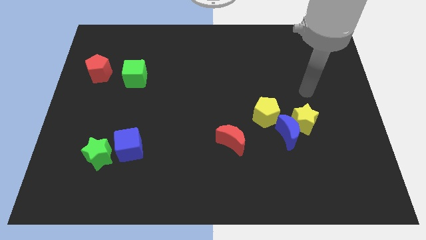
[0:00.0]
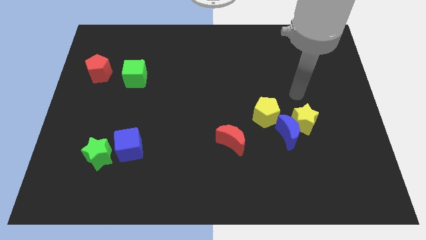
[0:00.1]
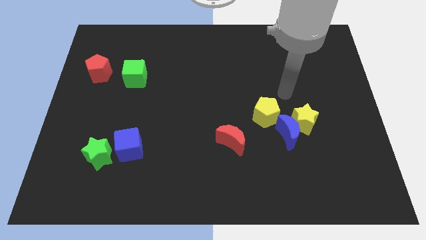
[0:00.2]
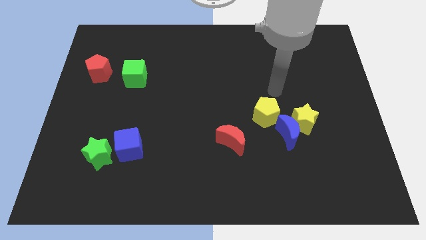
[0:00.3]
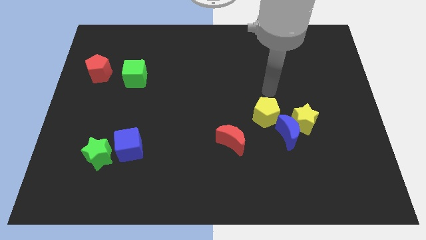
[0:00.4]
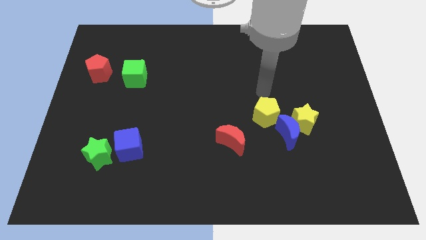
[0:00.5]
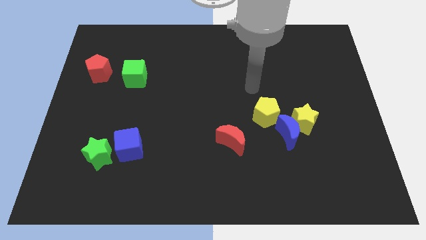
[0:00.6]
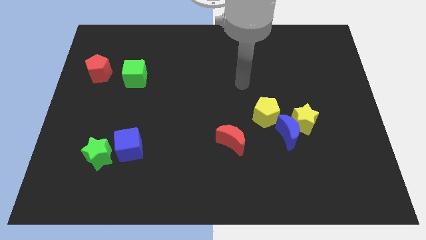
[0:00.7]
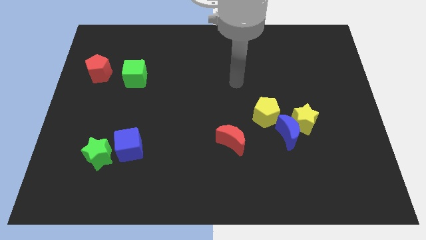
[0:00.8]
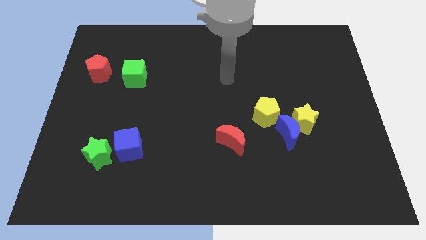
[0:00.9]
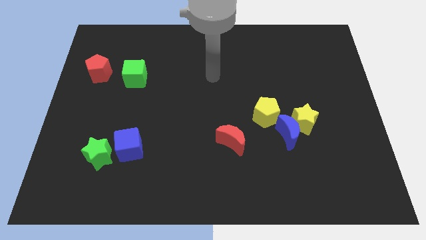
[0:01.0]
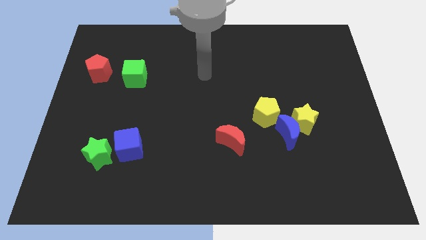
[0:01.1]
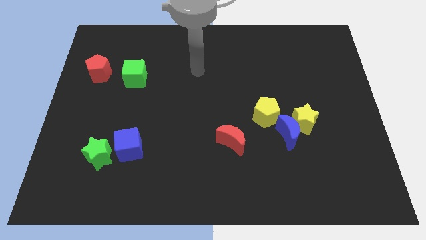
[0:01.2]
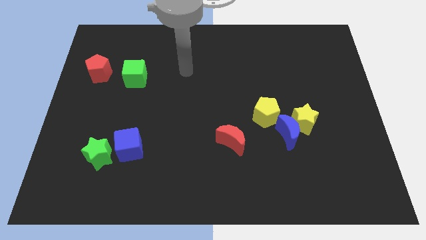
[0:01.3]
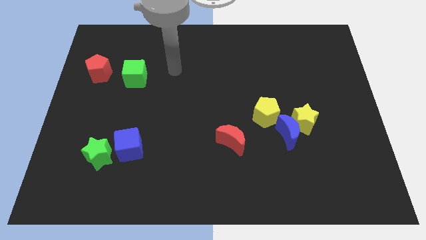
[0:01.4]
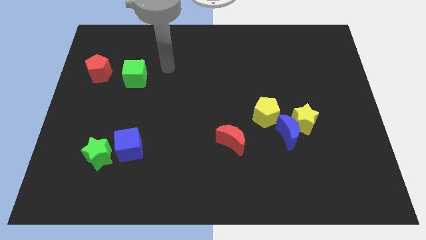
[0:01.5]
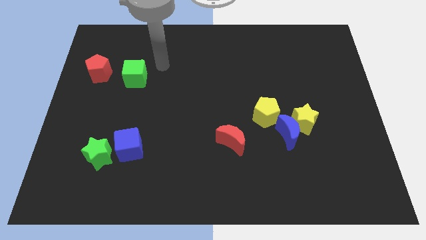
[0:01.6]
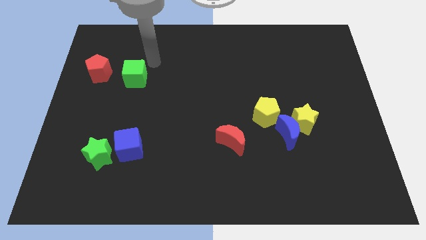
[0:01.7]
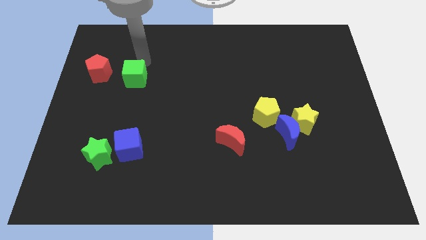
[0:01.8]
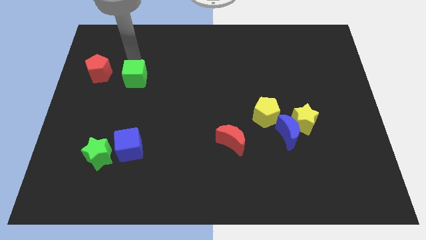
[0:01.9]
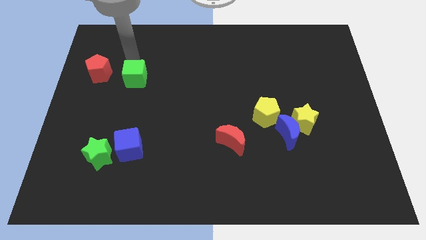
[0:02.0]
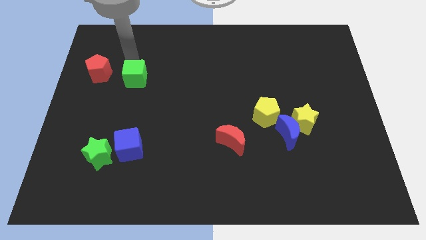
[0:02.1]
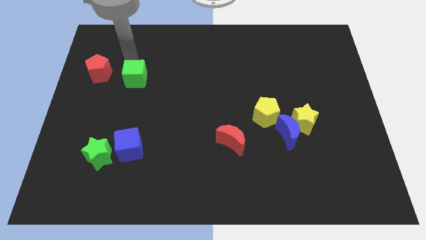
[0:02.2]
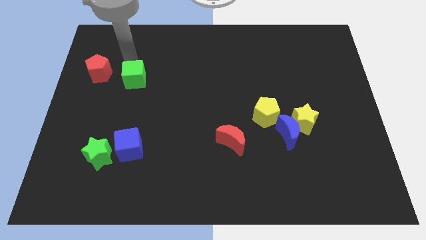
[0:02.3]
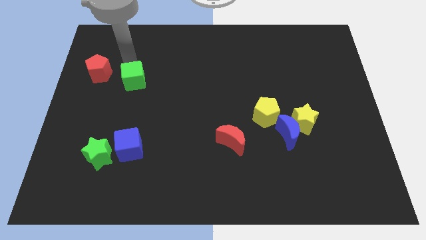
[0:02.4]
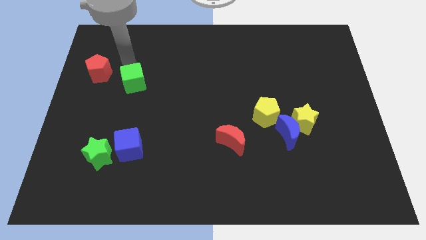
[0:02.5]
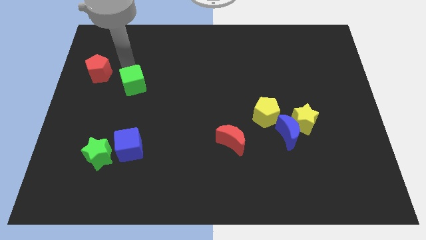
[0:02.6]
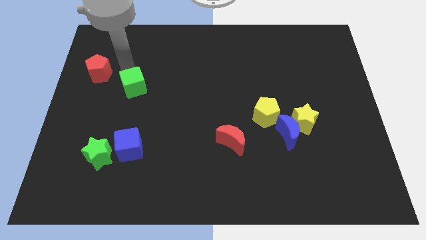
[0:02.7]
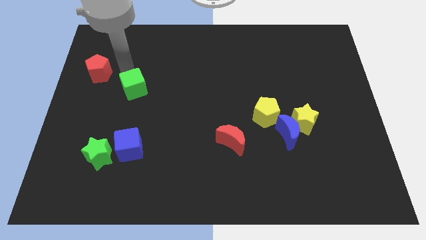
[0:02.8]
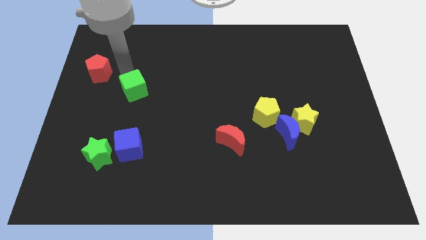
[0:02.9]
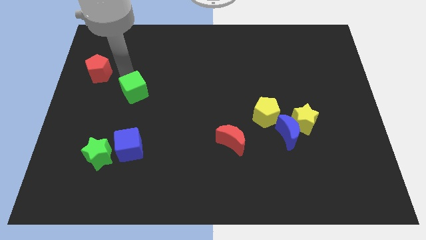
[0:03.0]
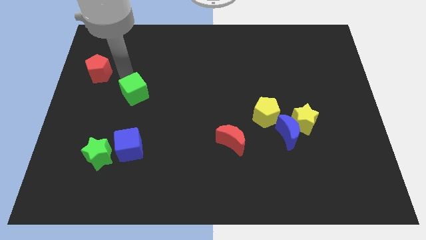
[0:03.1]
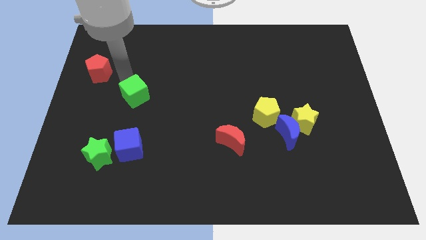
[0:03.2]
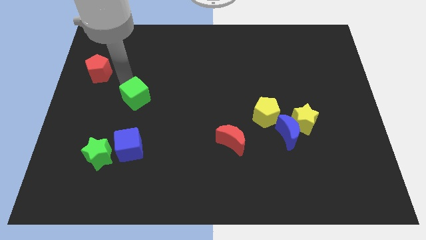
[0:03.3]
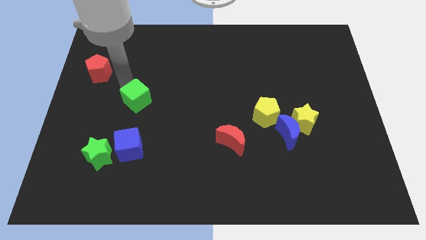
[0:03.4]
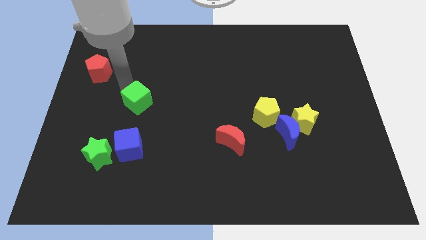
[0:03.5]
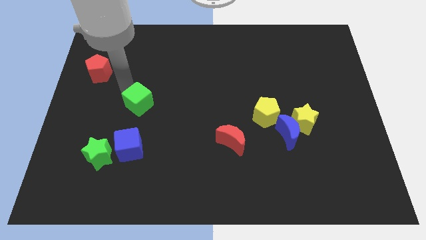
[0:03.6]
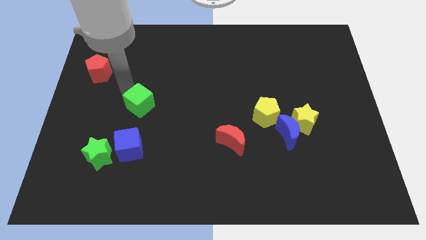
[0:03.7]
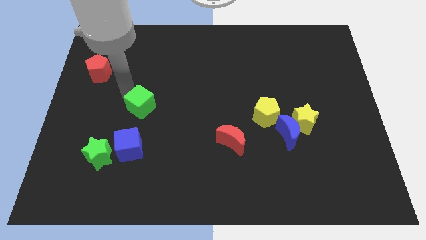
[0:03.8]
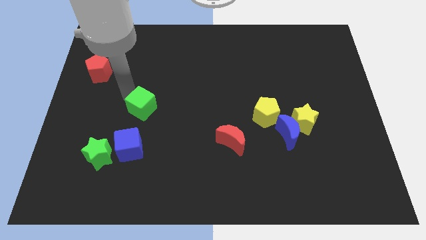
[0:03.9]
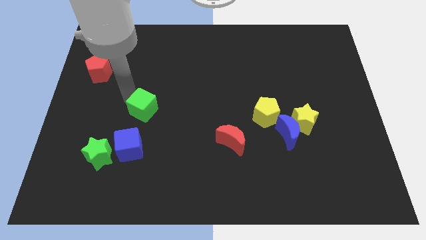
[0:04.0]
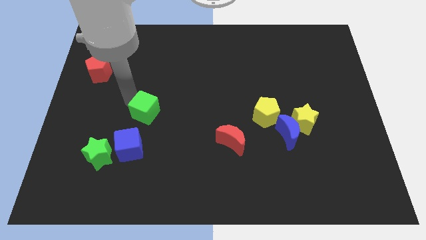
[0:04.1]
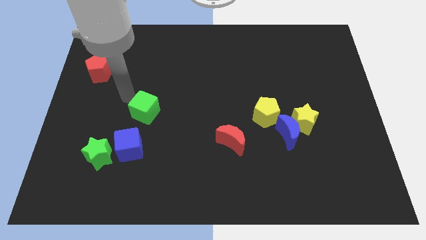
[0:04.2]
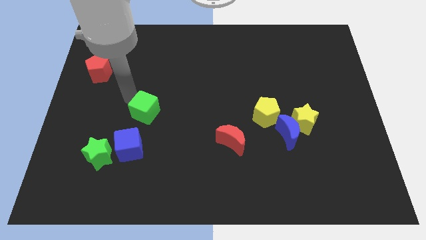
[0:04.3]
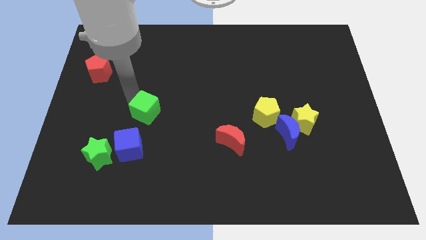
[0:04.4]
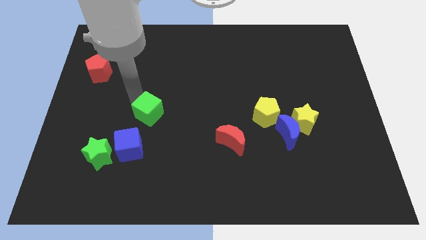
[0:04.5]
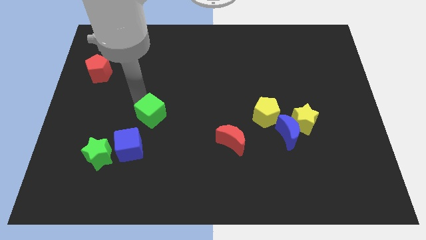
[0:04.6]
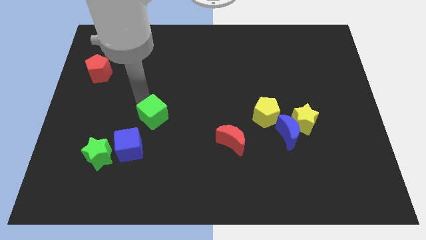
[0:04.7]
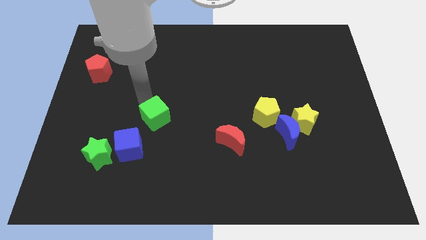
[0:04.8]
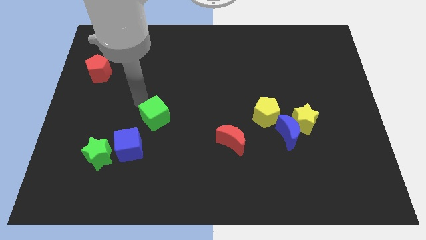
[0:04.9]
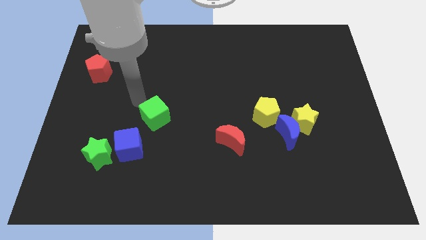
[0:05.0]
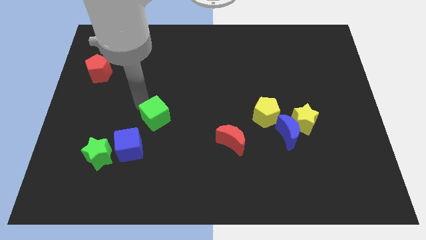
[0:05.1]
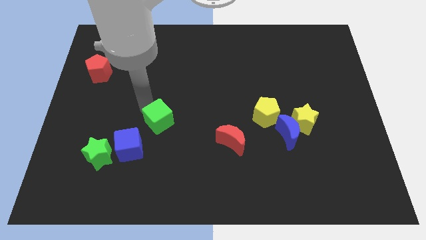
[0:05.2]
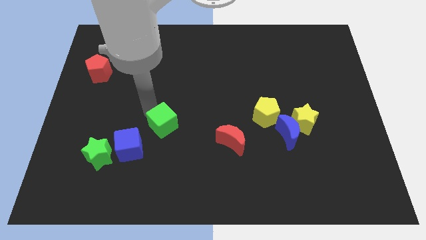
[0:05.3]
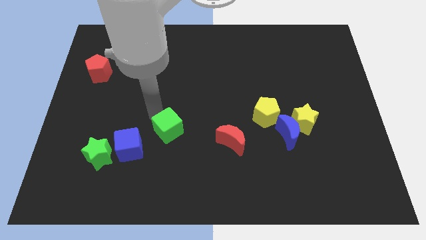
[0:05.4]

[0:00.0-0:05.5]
move the green cube just right of the blue cube

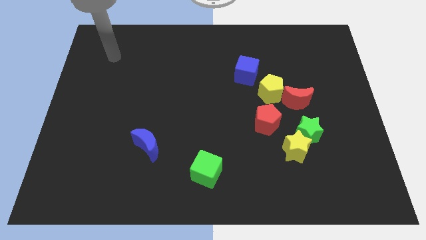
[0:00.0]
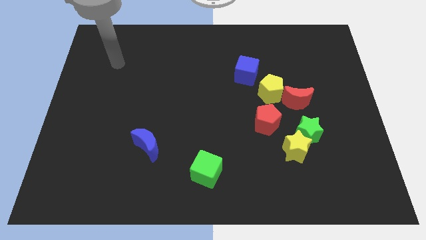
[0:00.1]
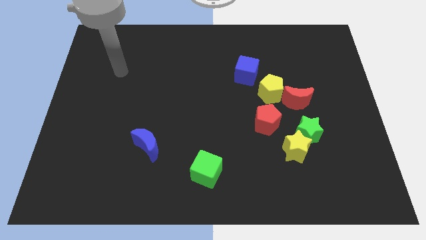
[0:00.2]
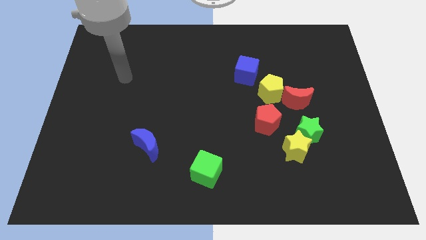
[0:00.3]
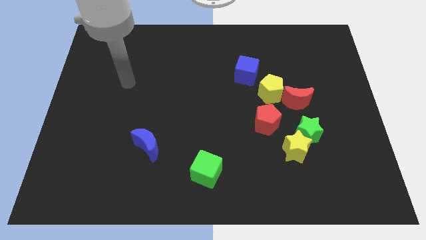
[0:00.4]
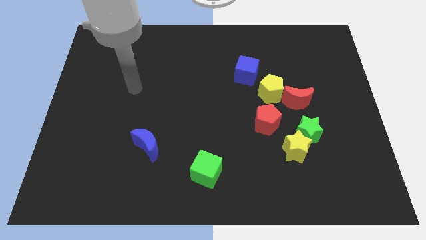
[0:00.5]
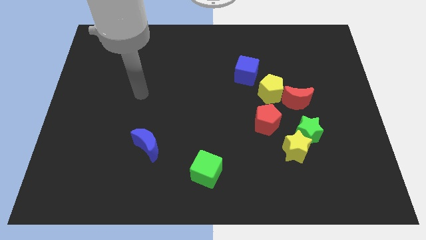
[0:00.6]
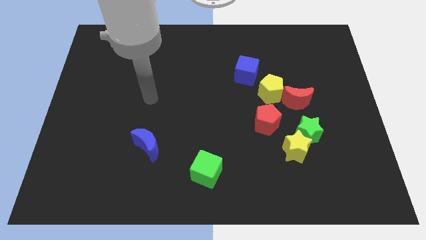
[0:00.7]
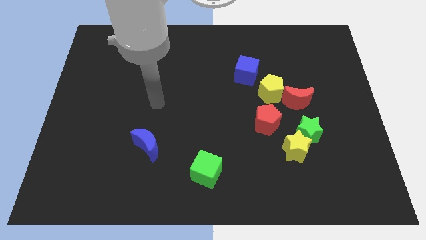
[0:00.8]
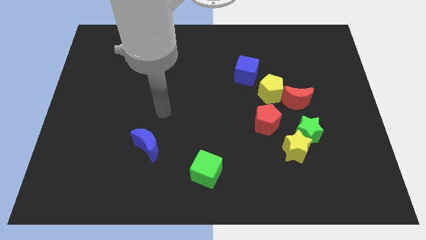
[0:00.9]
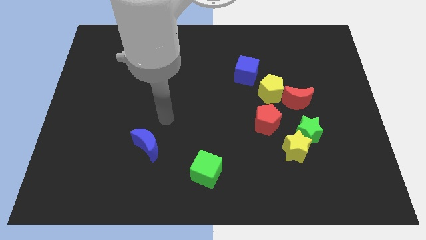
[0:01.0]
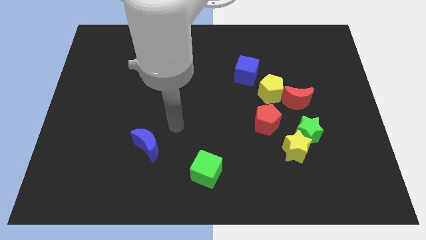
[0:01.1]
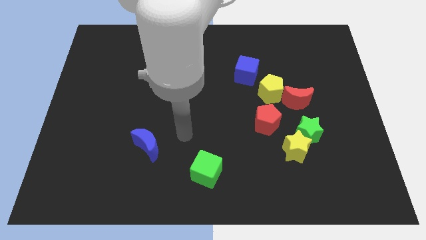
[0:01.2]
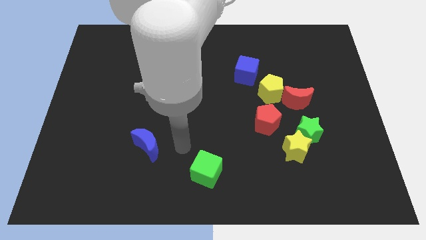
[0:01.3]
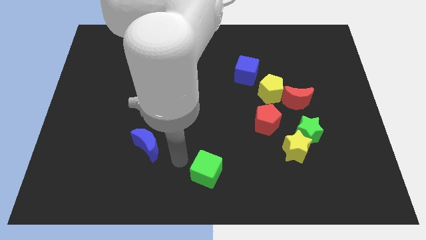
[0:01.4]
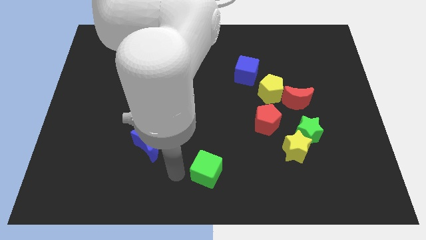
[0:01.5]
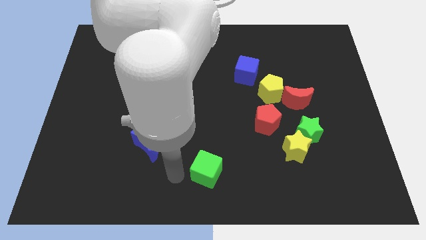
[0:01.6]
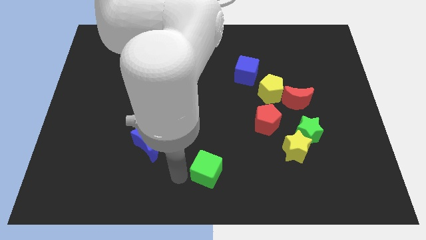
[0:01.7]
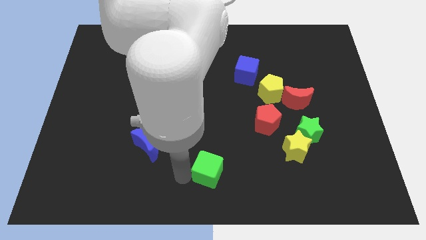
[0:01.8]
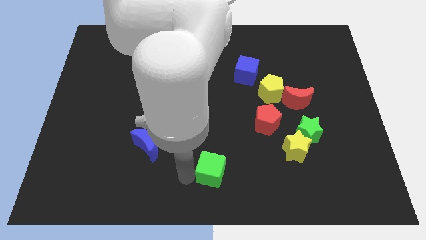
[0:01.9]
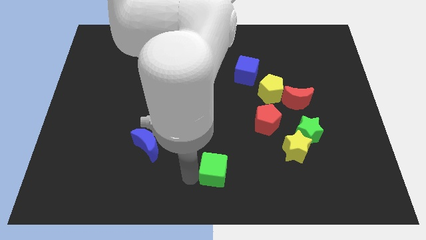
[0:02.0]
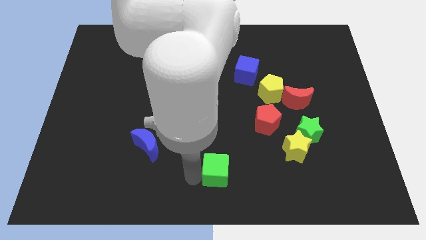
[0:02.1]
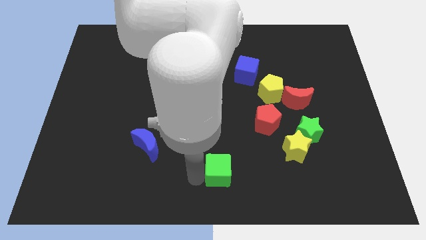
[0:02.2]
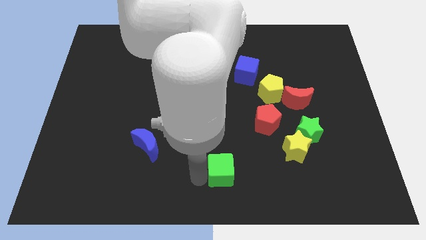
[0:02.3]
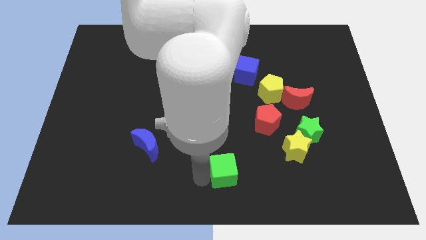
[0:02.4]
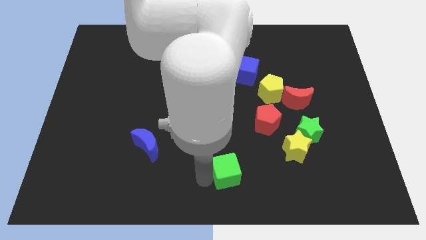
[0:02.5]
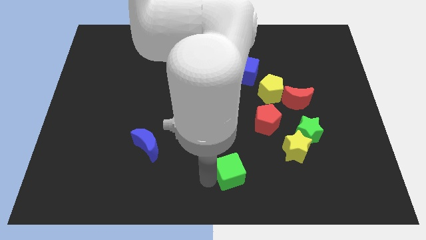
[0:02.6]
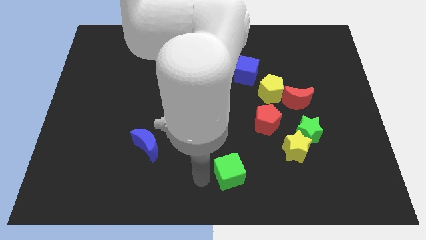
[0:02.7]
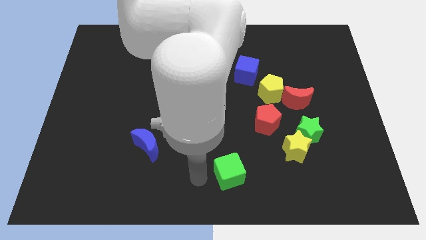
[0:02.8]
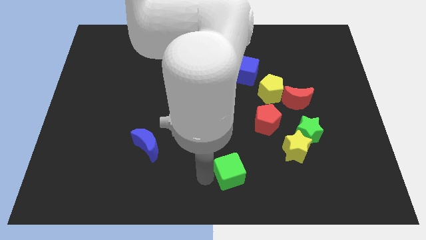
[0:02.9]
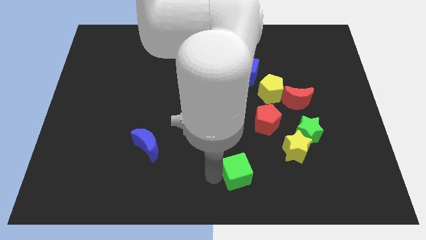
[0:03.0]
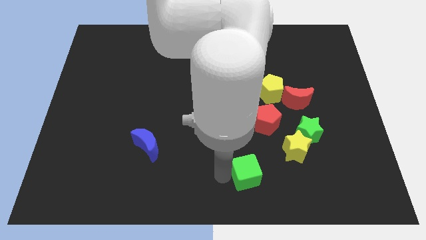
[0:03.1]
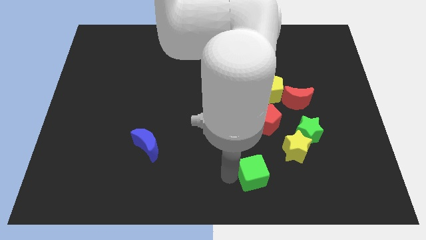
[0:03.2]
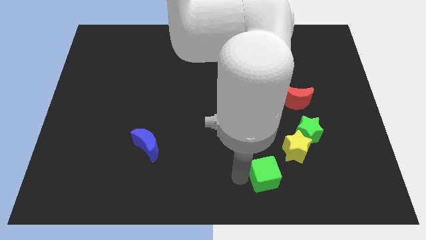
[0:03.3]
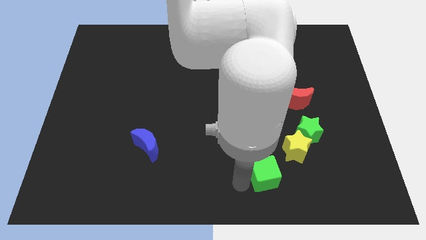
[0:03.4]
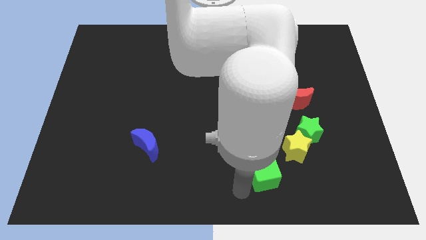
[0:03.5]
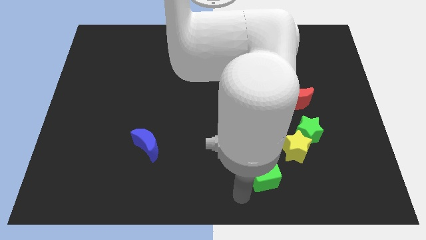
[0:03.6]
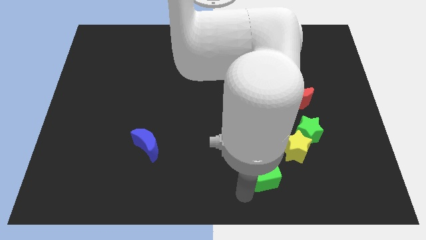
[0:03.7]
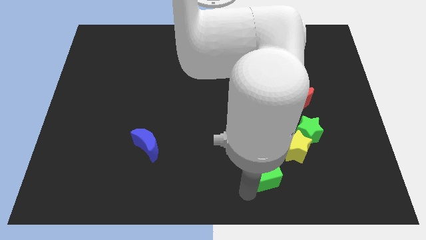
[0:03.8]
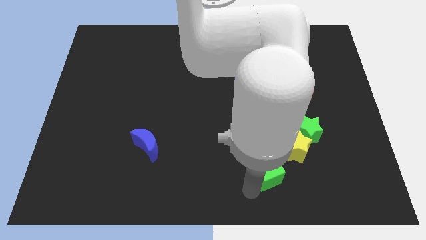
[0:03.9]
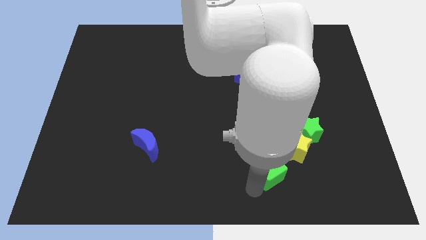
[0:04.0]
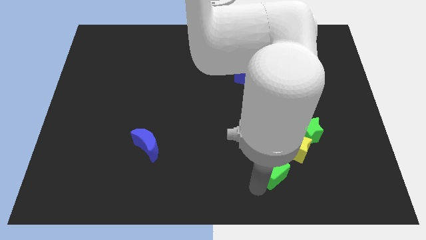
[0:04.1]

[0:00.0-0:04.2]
put the green cube to the bottom left side of the green star
